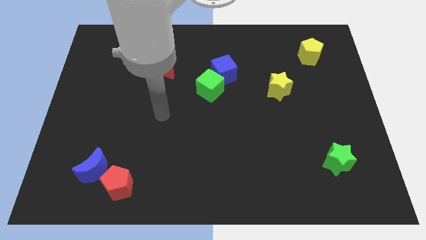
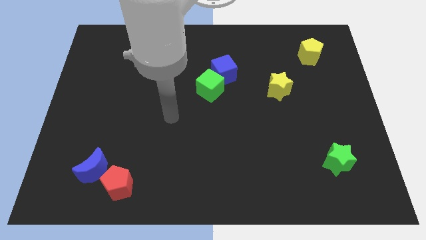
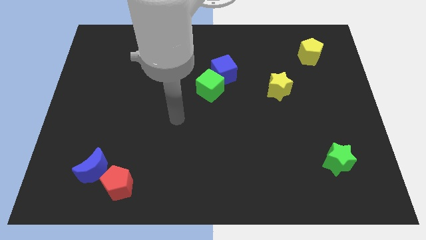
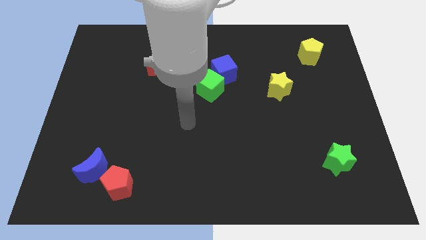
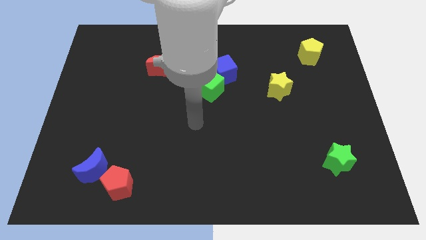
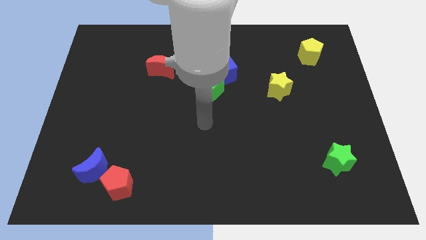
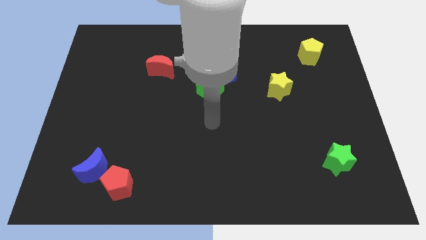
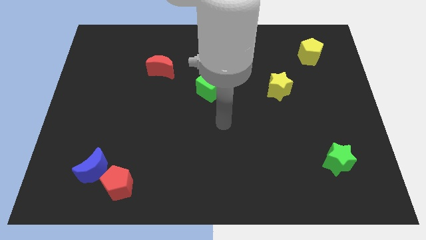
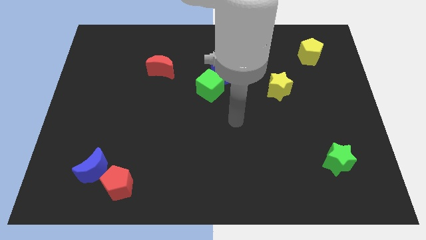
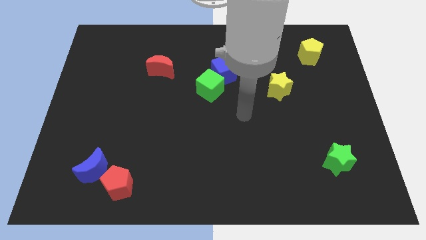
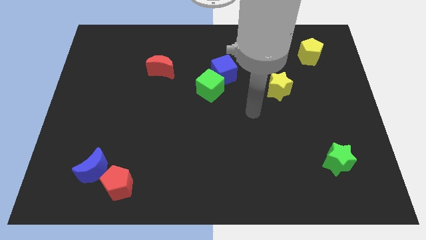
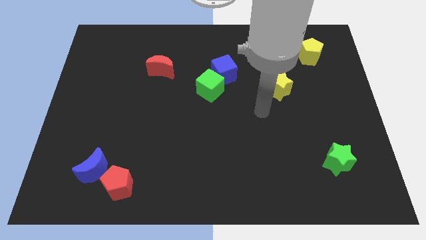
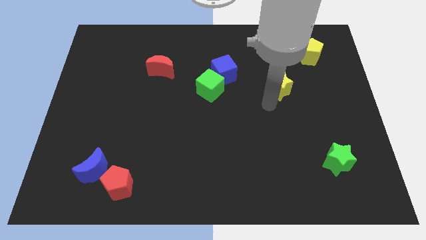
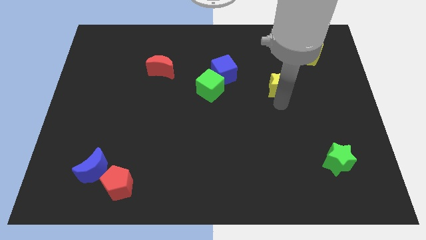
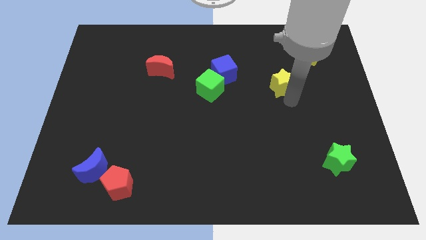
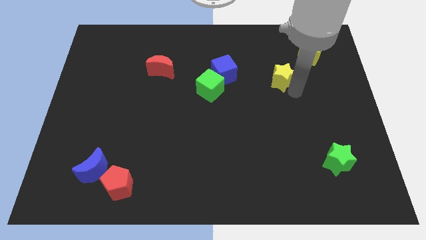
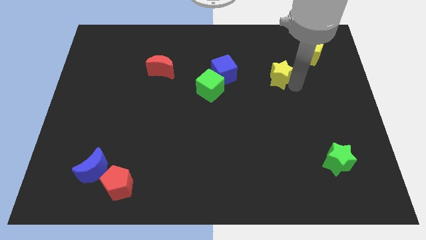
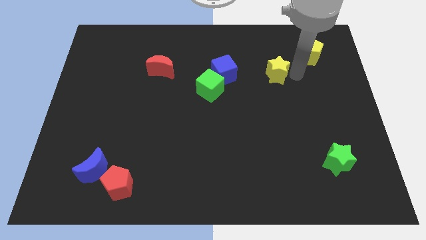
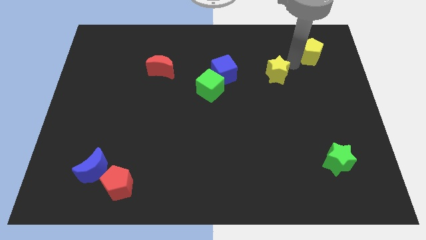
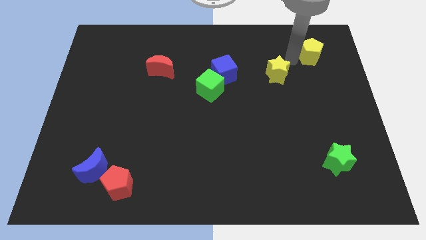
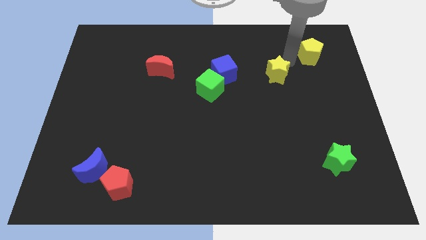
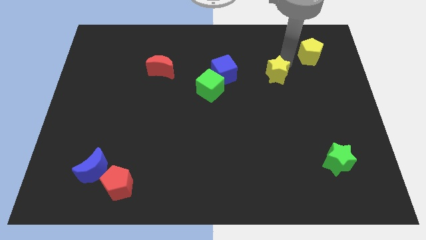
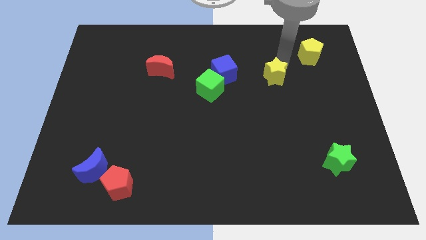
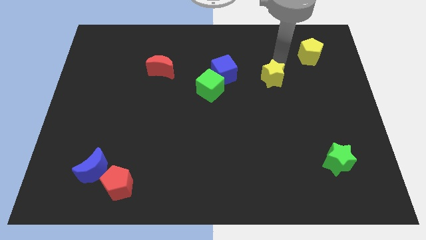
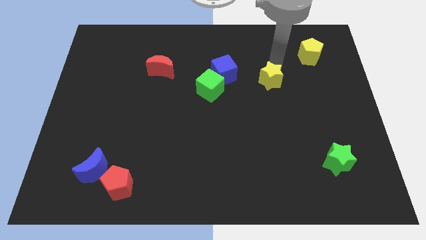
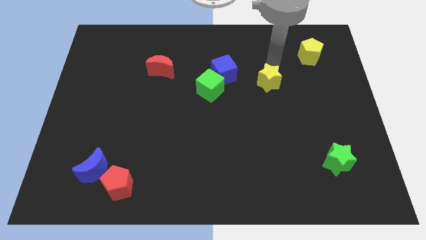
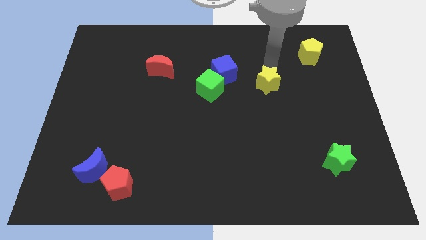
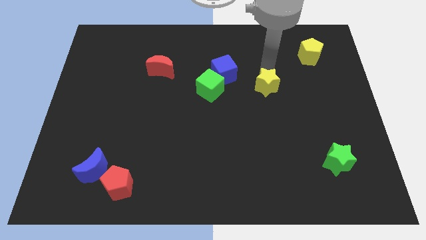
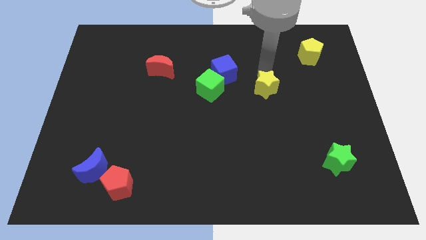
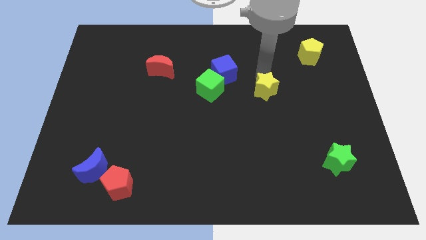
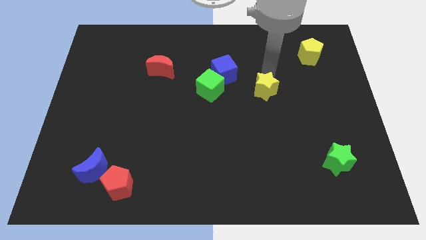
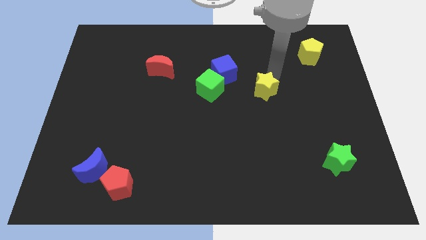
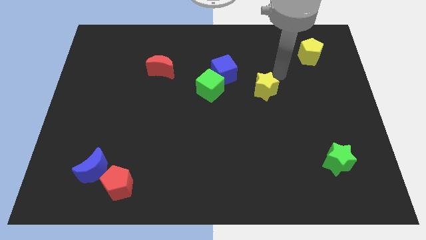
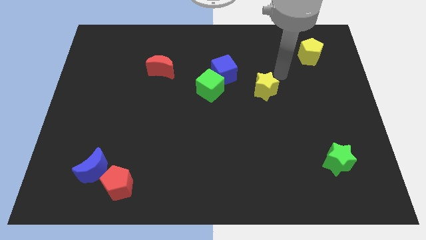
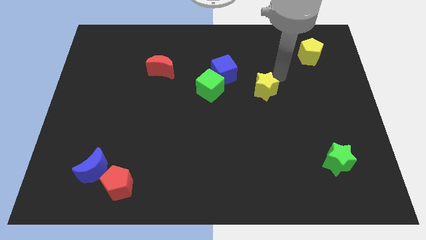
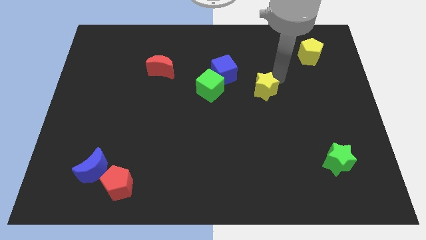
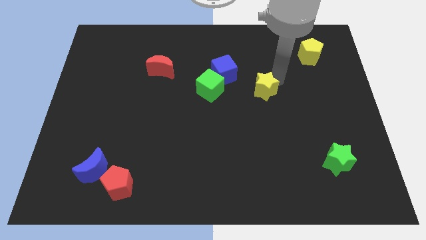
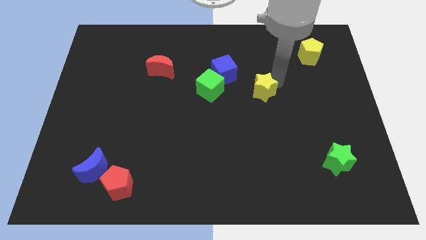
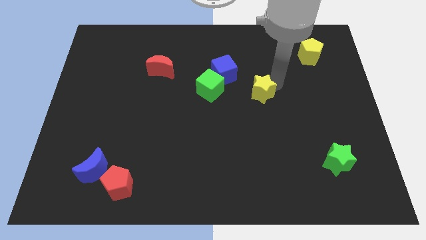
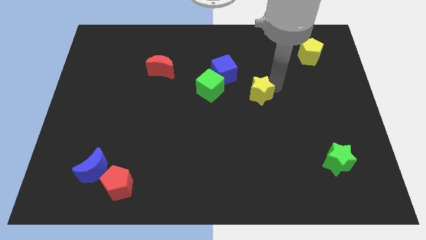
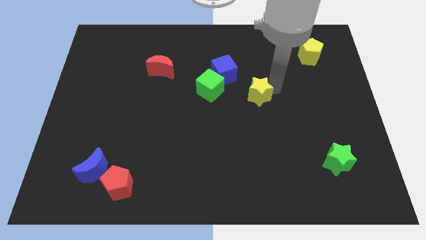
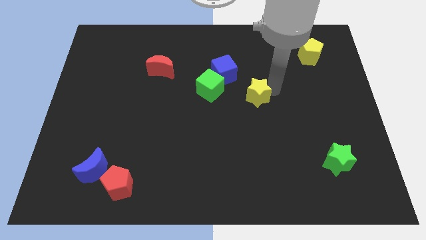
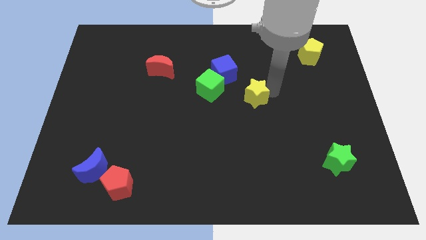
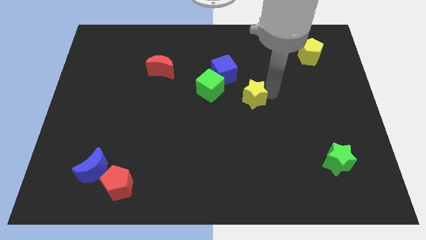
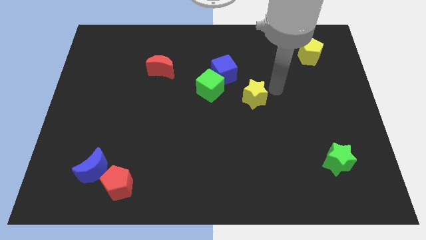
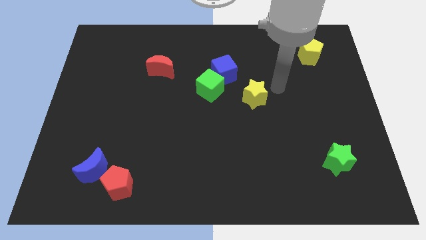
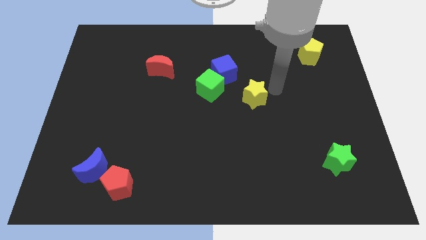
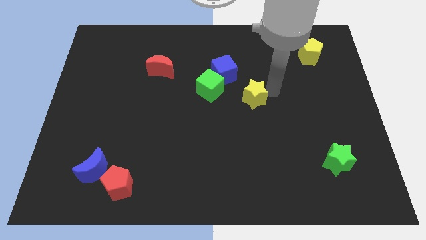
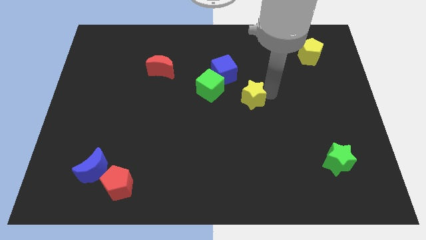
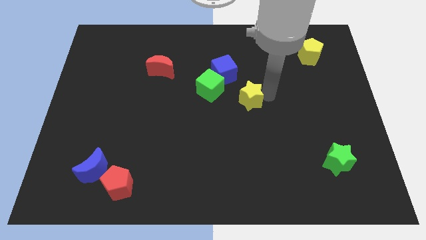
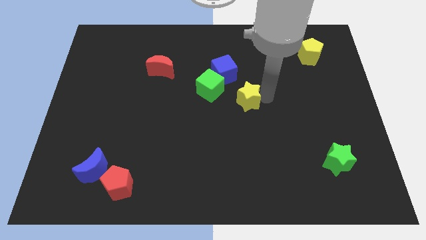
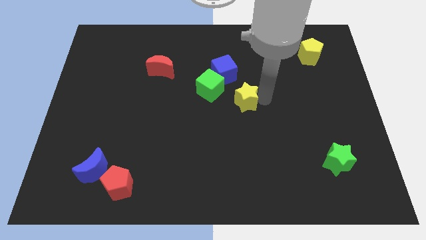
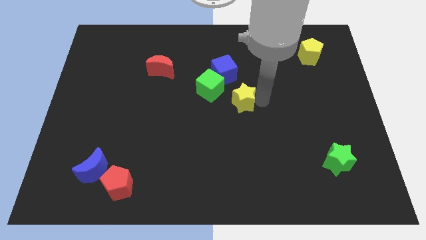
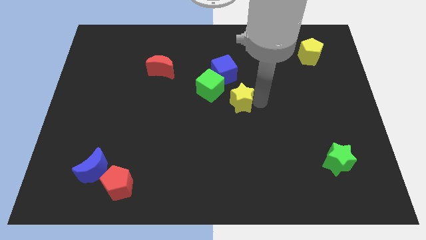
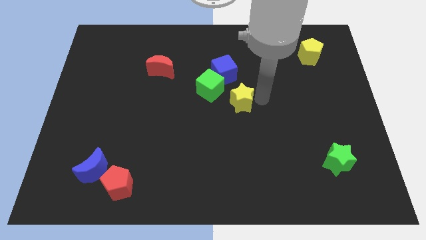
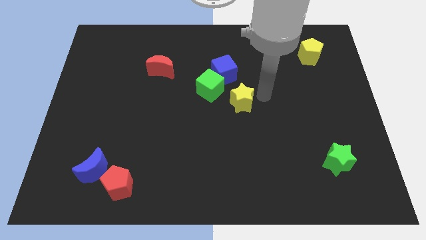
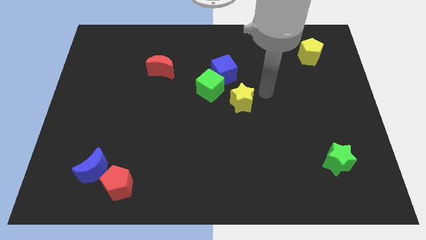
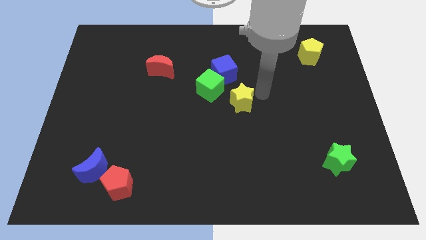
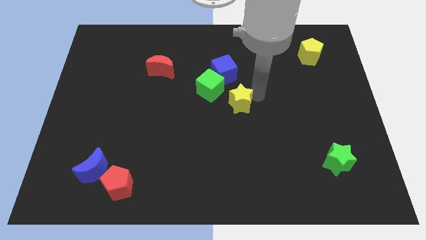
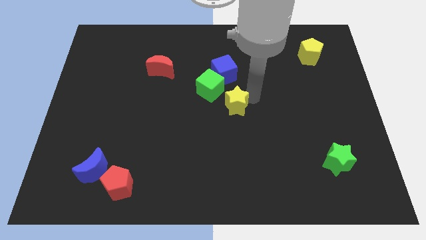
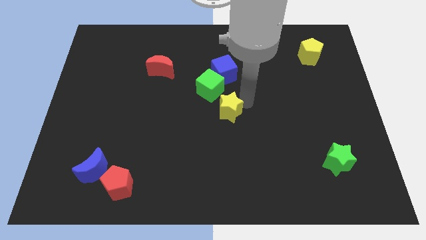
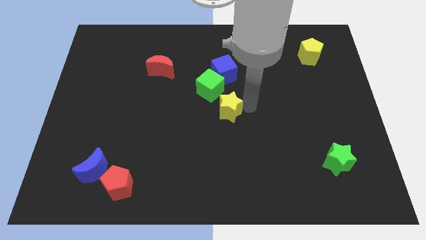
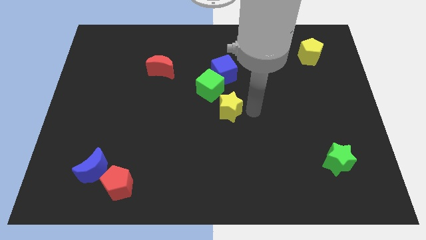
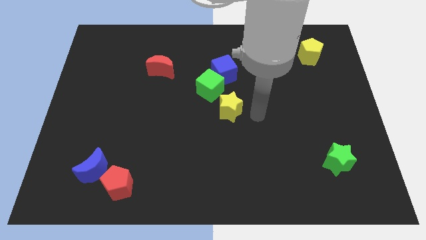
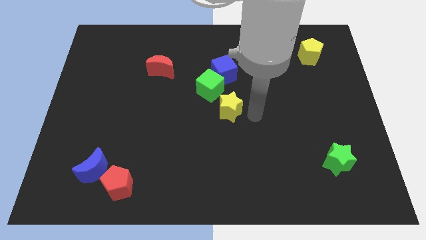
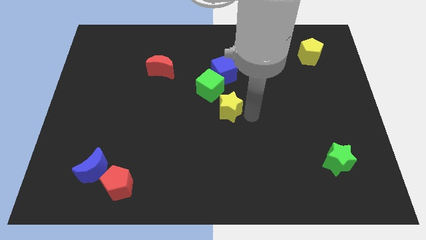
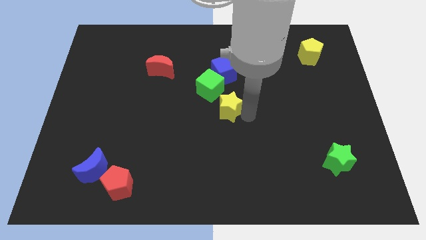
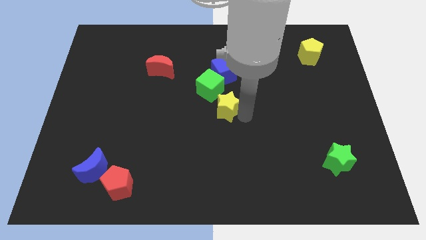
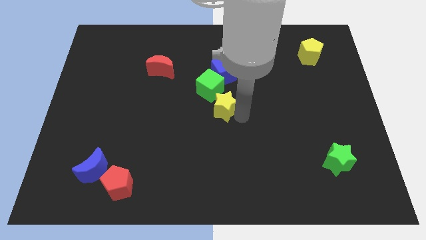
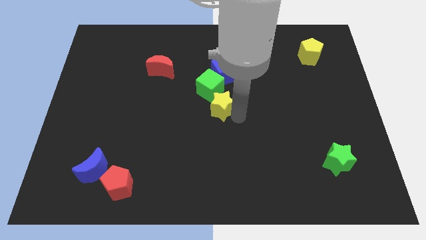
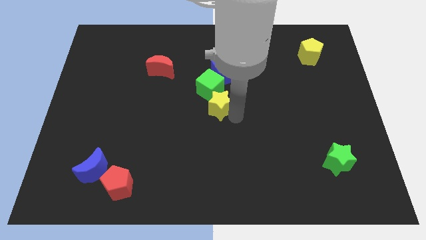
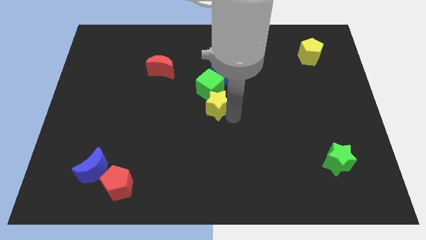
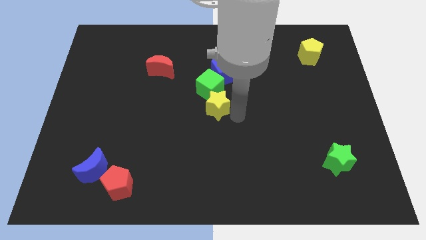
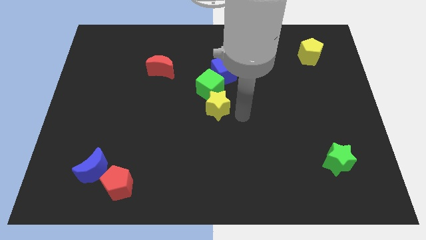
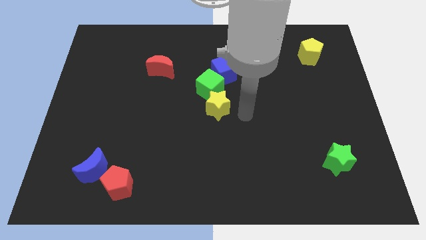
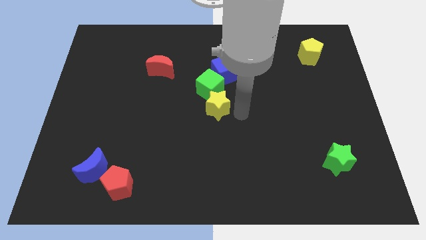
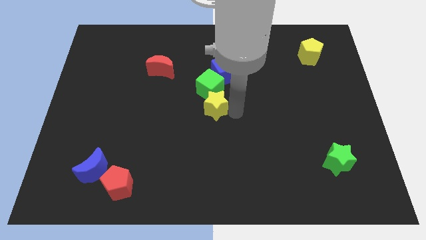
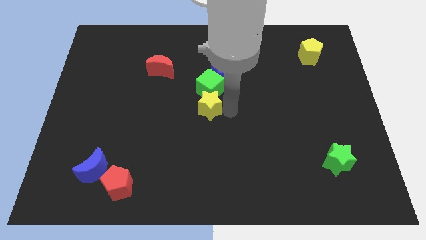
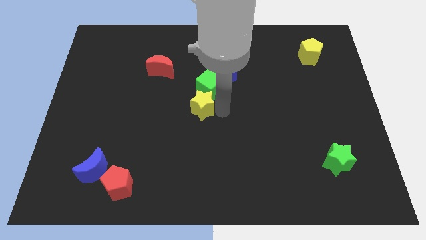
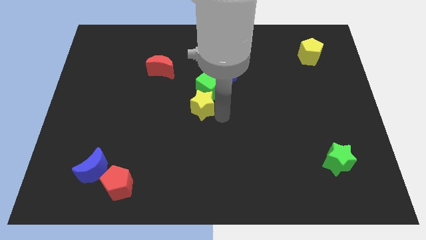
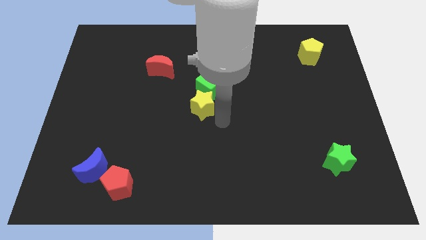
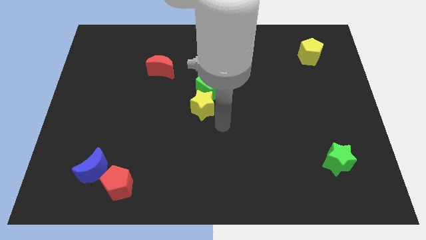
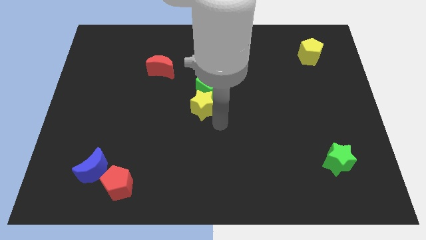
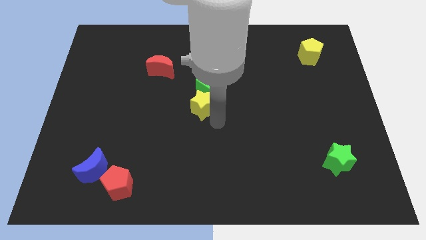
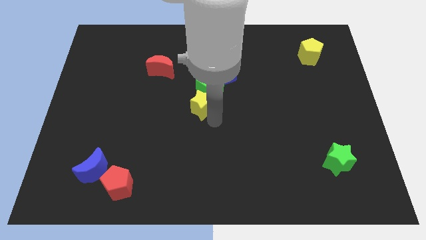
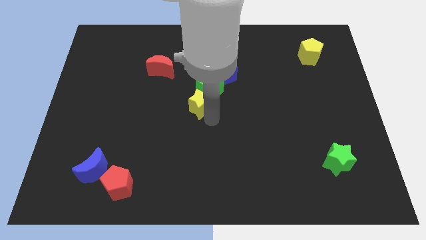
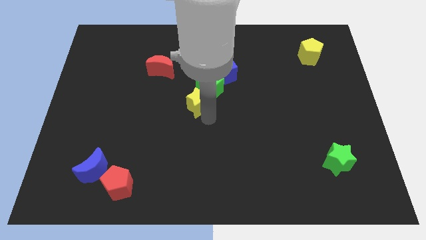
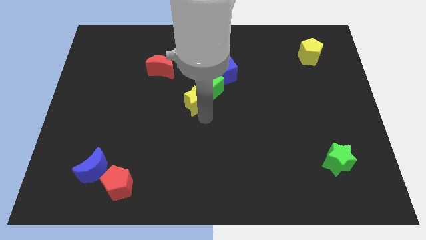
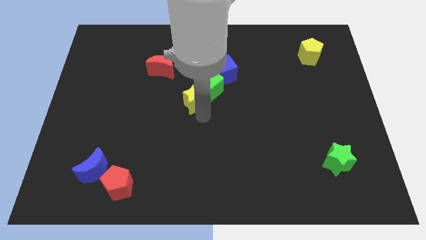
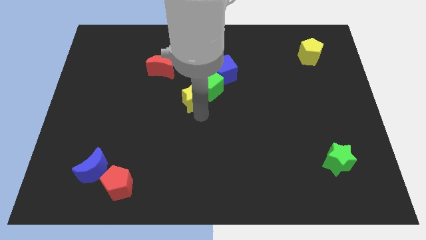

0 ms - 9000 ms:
push the yellow star just left of the green cube
